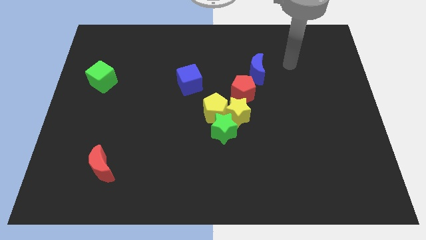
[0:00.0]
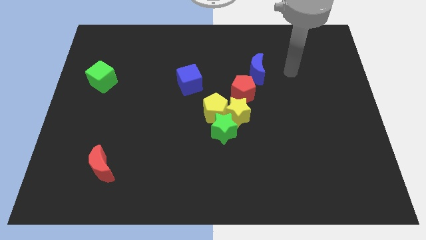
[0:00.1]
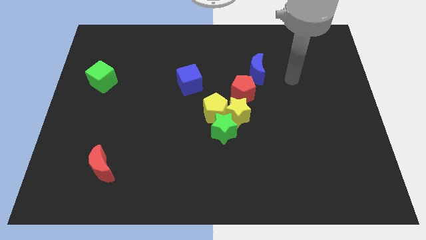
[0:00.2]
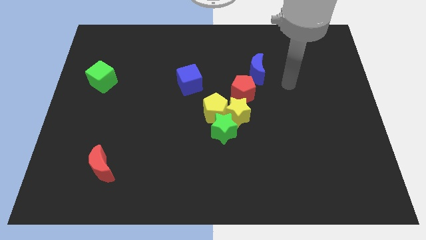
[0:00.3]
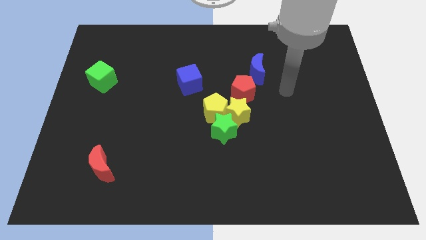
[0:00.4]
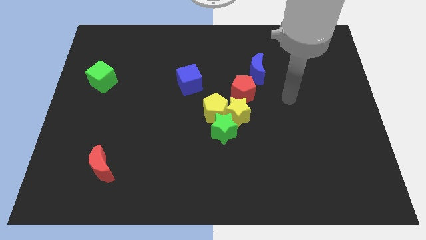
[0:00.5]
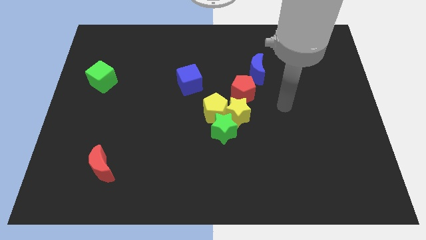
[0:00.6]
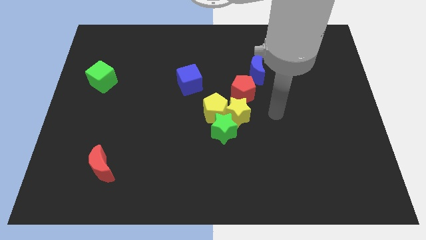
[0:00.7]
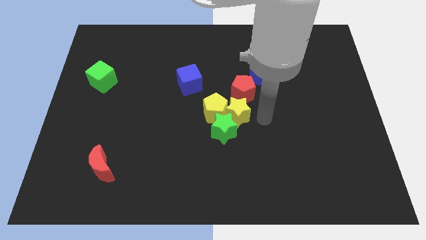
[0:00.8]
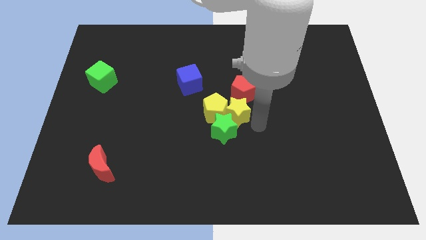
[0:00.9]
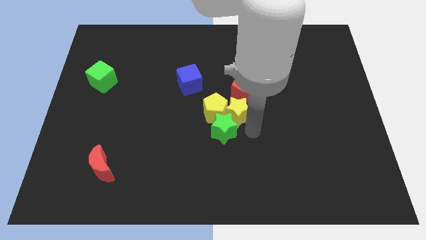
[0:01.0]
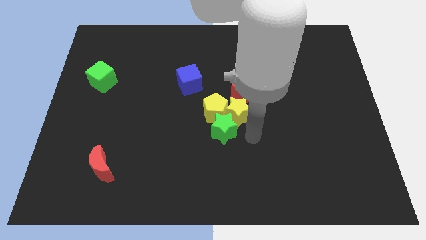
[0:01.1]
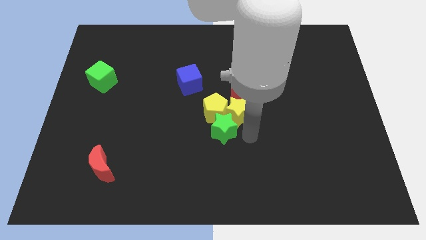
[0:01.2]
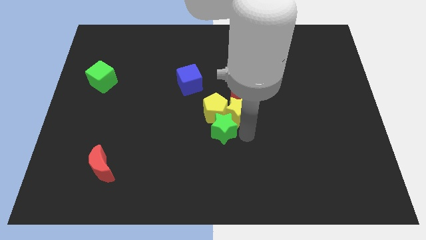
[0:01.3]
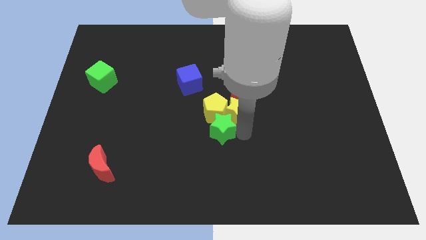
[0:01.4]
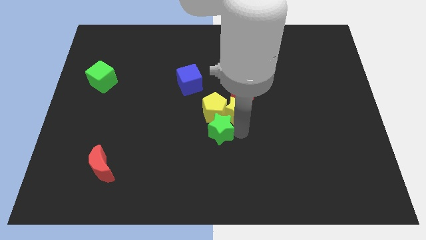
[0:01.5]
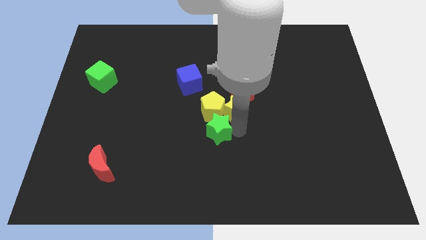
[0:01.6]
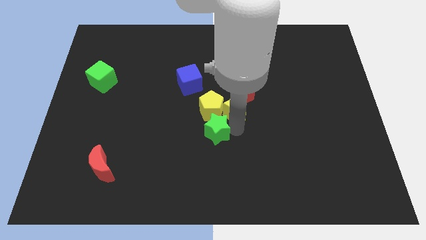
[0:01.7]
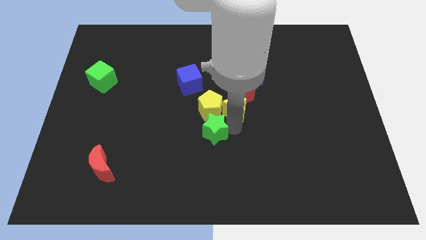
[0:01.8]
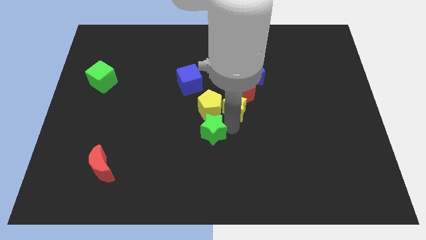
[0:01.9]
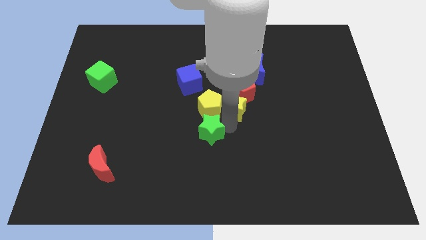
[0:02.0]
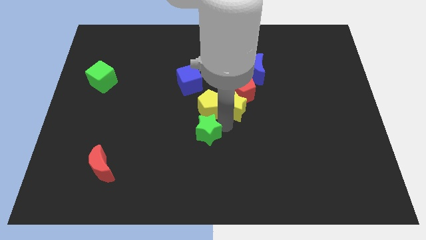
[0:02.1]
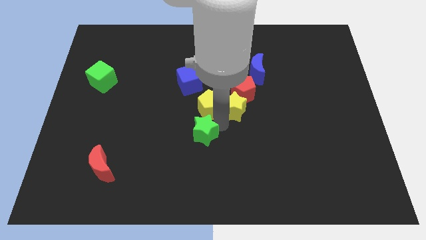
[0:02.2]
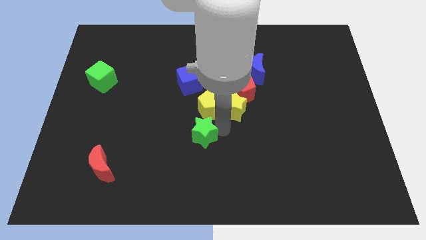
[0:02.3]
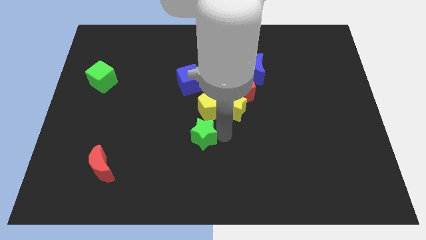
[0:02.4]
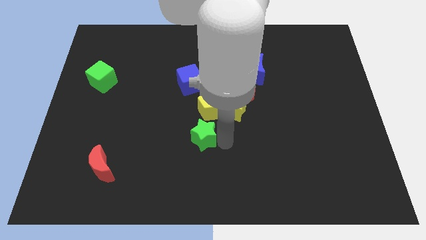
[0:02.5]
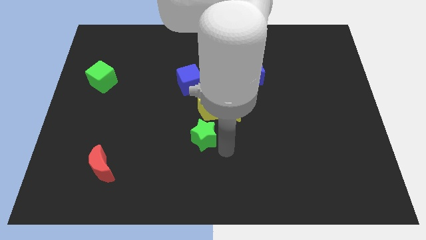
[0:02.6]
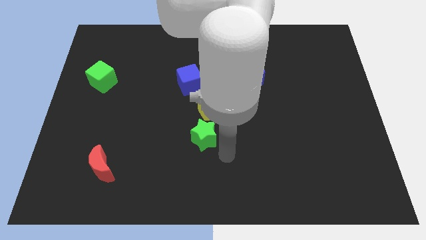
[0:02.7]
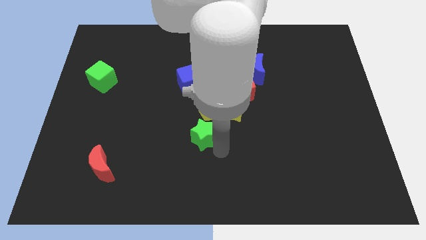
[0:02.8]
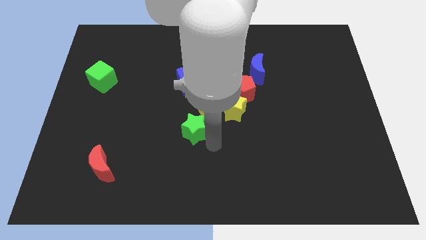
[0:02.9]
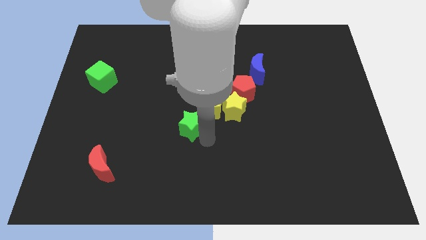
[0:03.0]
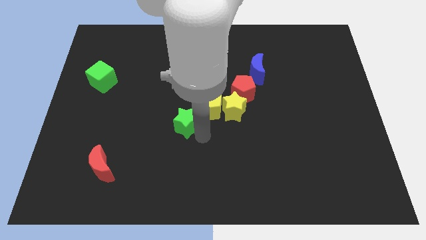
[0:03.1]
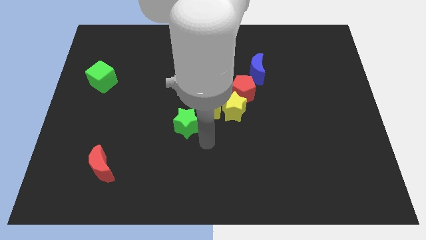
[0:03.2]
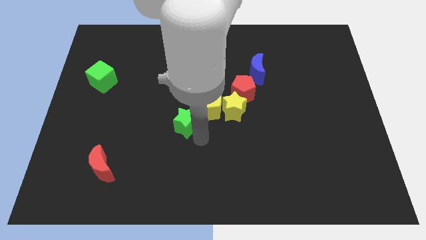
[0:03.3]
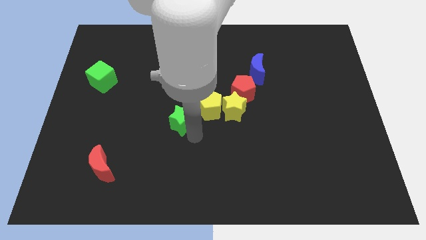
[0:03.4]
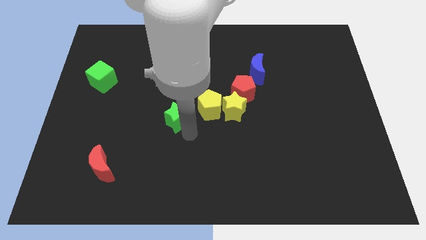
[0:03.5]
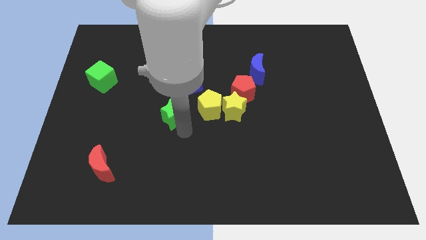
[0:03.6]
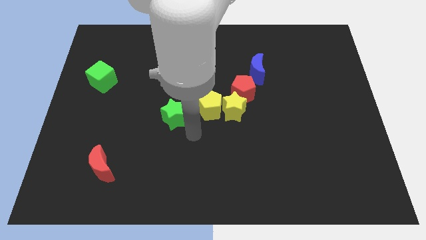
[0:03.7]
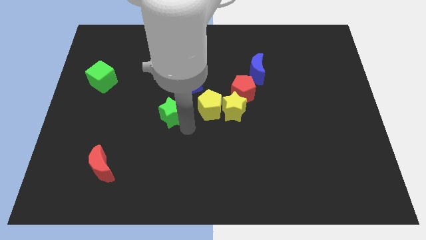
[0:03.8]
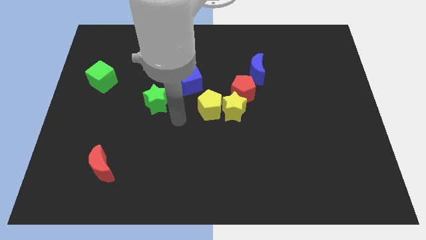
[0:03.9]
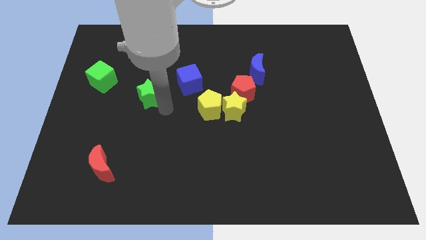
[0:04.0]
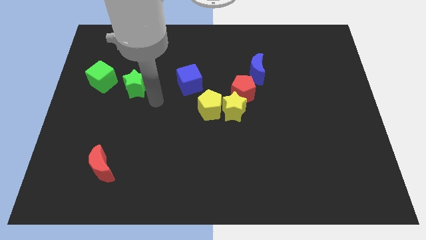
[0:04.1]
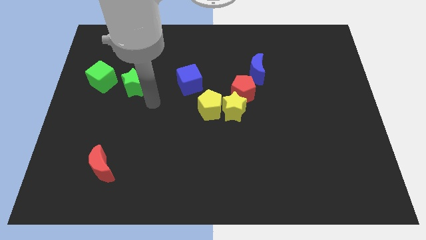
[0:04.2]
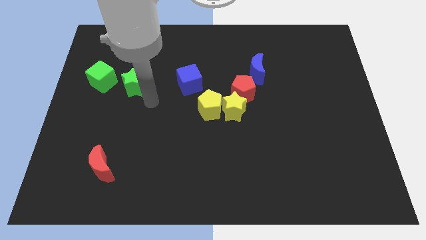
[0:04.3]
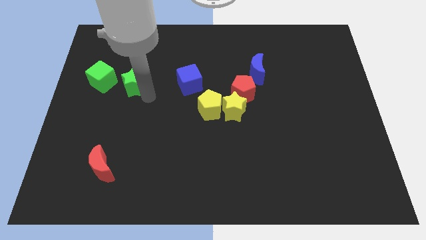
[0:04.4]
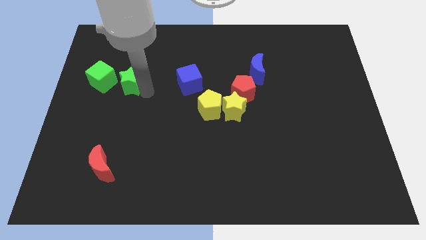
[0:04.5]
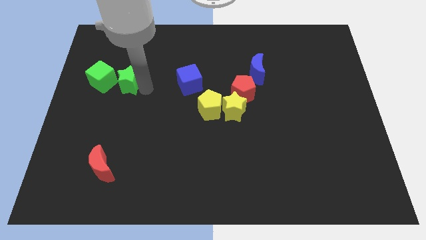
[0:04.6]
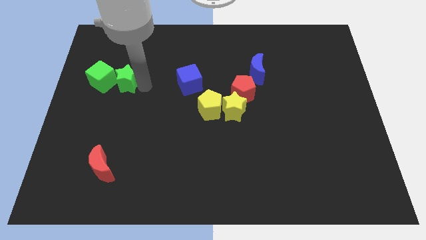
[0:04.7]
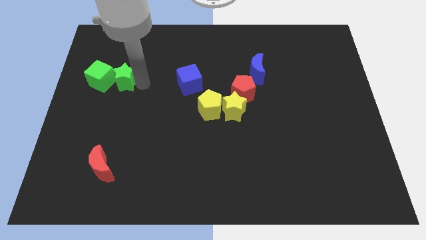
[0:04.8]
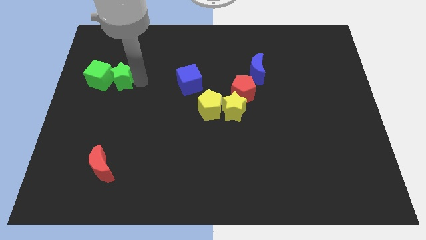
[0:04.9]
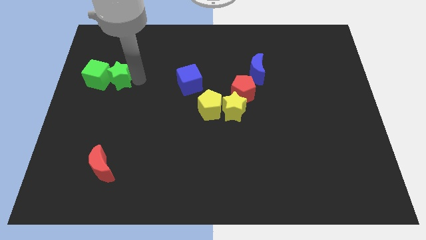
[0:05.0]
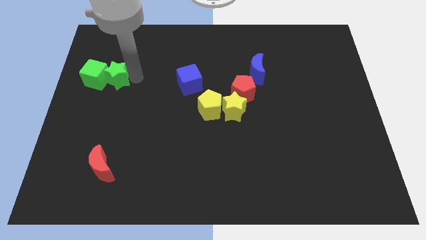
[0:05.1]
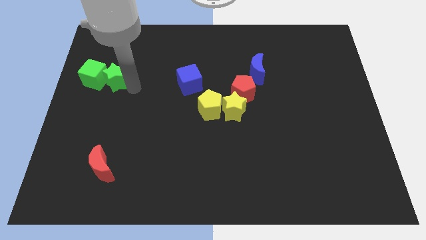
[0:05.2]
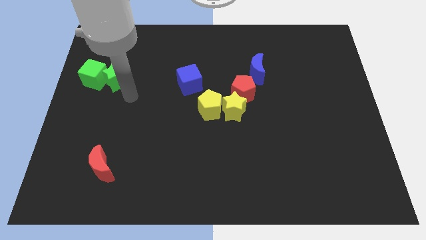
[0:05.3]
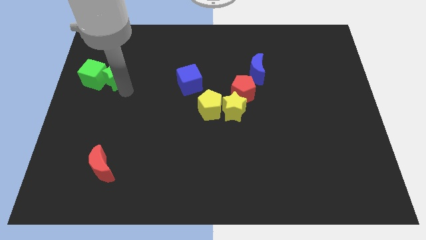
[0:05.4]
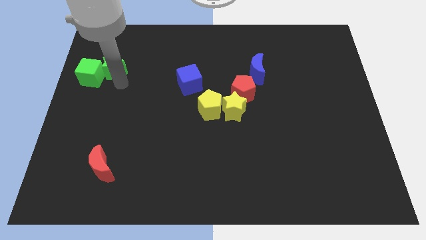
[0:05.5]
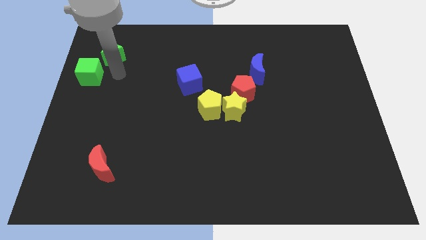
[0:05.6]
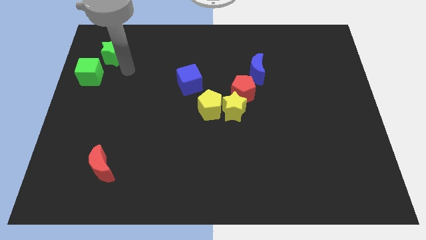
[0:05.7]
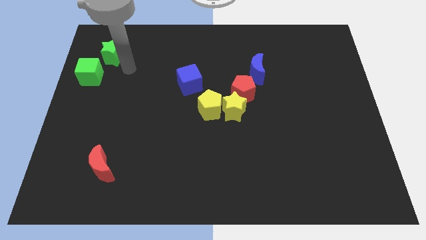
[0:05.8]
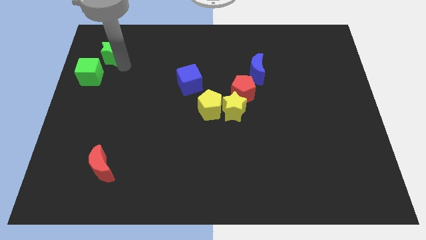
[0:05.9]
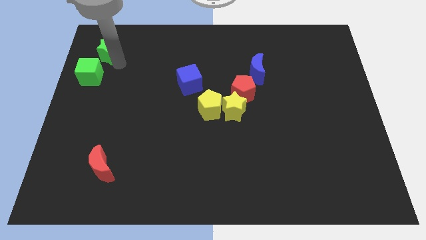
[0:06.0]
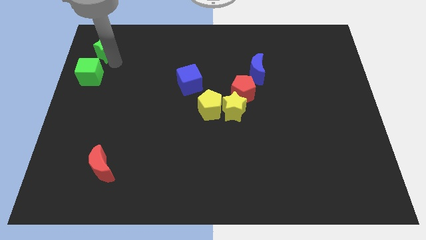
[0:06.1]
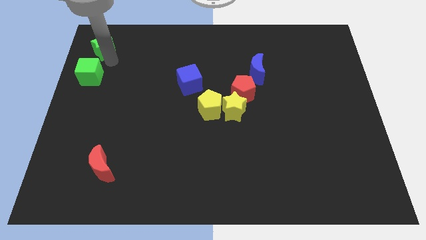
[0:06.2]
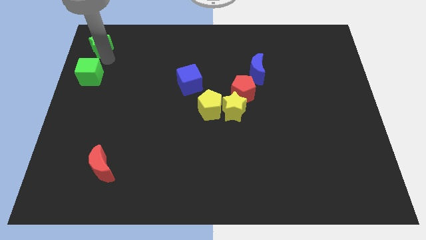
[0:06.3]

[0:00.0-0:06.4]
move the green star to the top left corner
